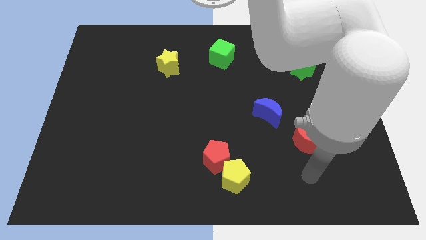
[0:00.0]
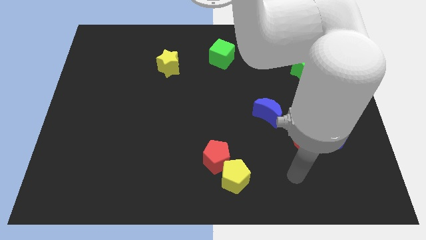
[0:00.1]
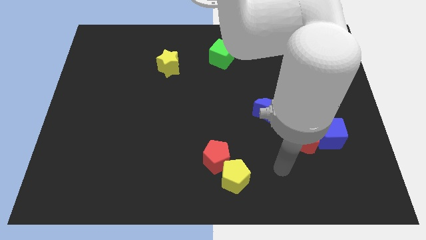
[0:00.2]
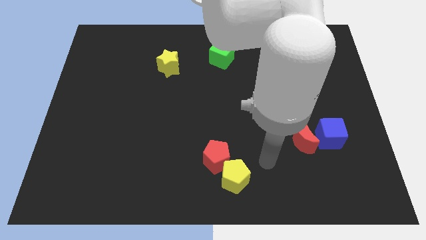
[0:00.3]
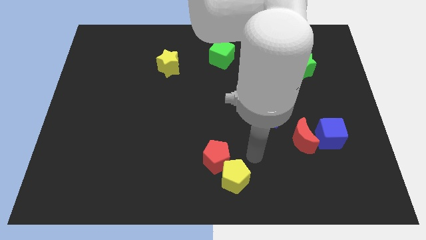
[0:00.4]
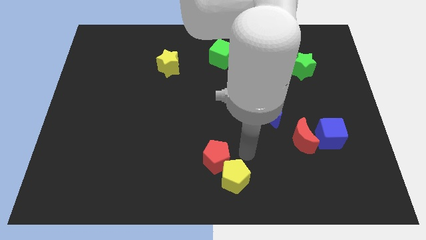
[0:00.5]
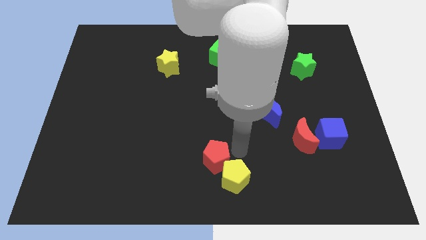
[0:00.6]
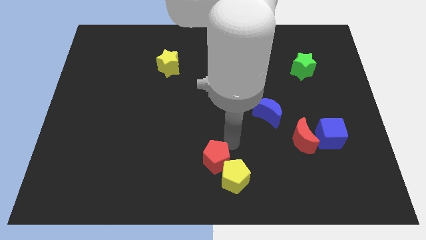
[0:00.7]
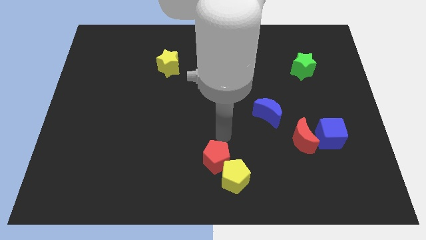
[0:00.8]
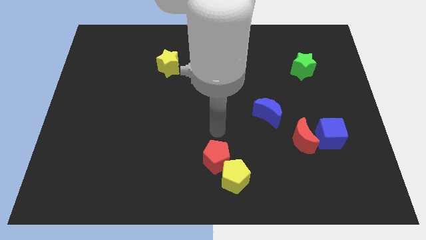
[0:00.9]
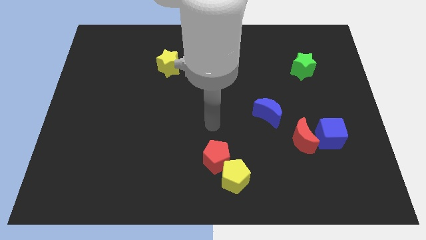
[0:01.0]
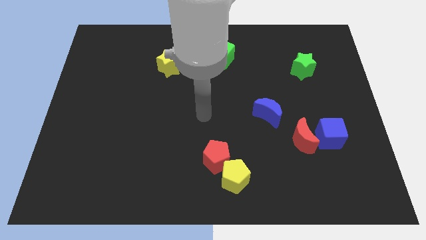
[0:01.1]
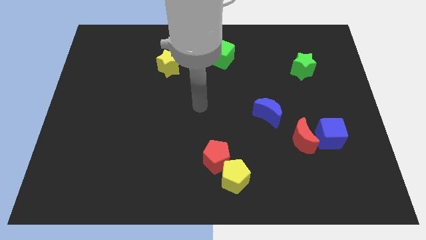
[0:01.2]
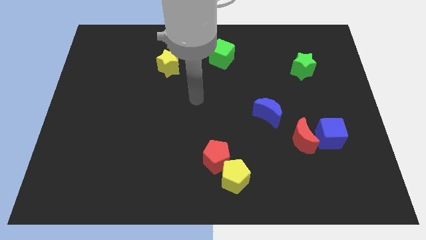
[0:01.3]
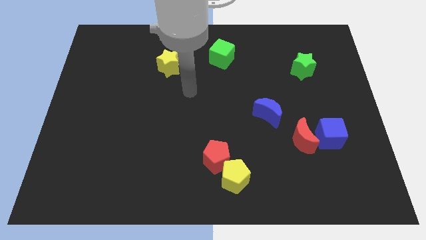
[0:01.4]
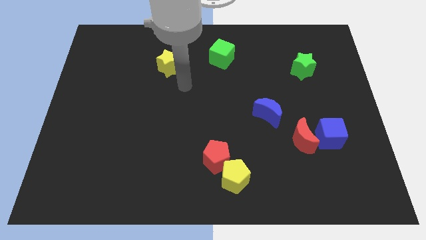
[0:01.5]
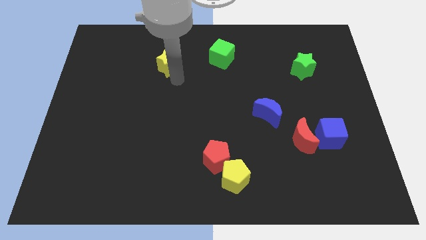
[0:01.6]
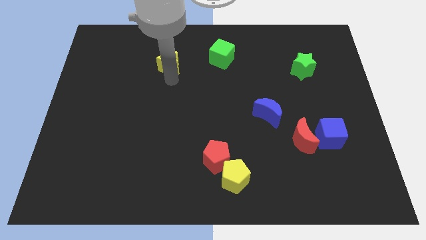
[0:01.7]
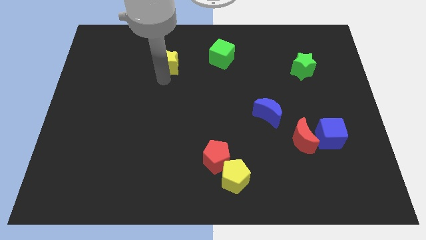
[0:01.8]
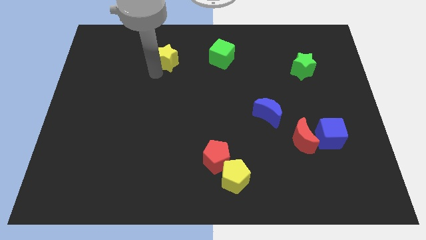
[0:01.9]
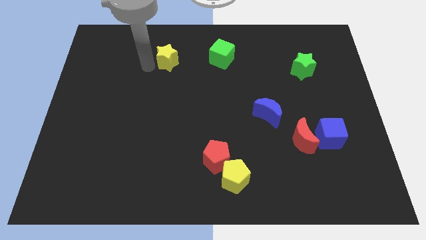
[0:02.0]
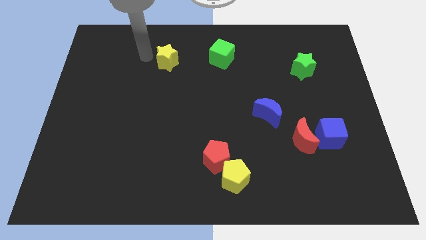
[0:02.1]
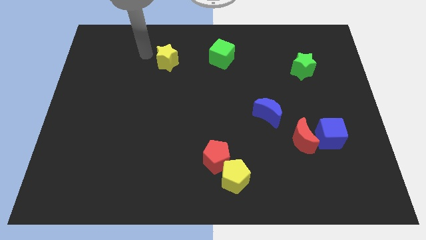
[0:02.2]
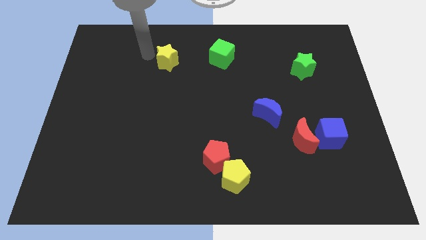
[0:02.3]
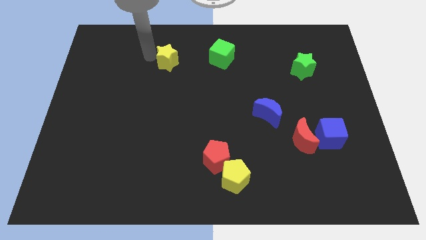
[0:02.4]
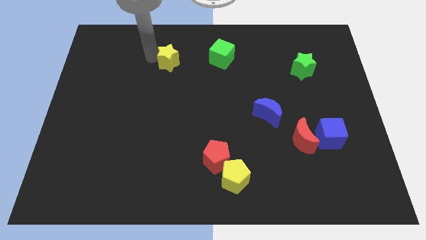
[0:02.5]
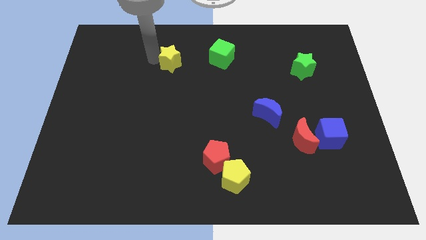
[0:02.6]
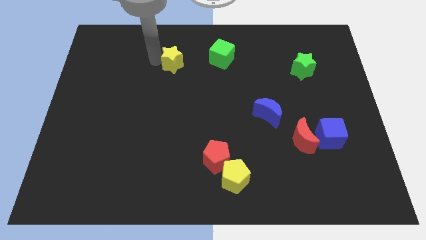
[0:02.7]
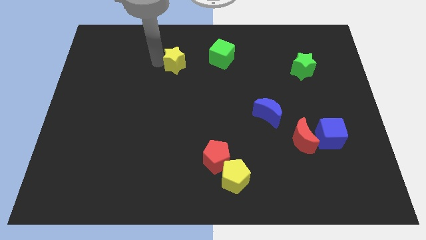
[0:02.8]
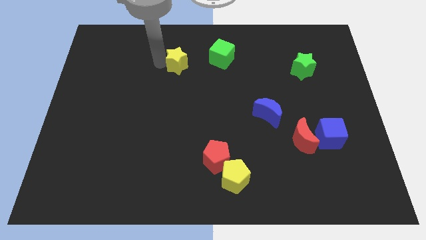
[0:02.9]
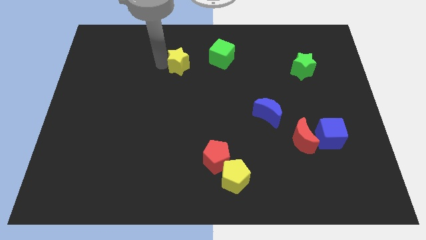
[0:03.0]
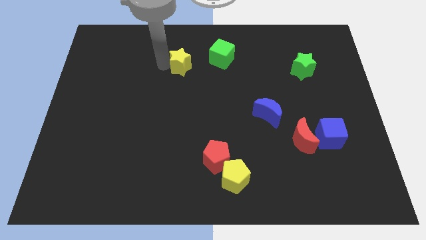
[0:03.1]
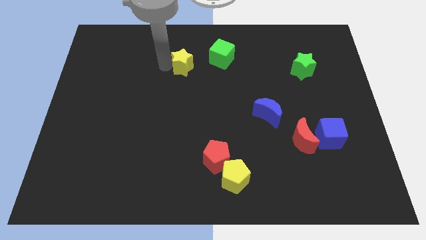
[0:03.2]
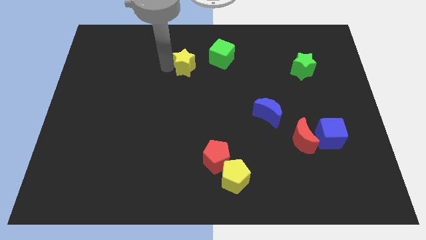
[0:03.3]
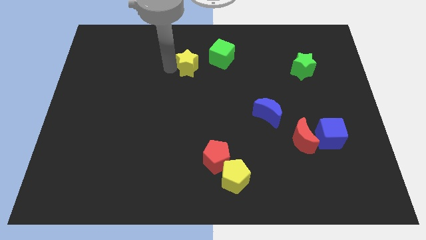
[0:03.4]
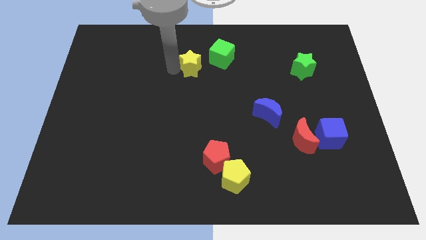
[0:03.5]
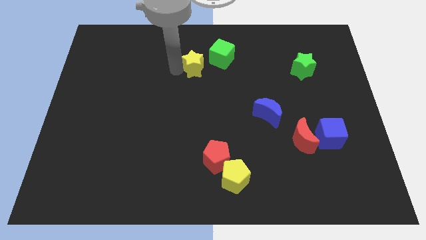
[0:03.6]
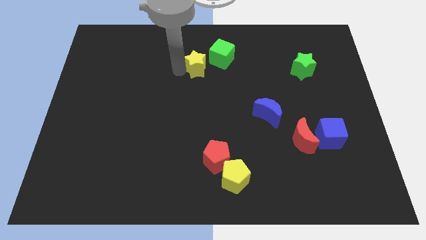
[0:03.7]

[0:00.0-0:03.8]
slightly slide the yellow star to the right

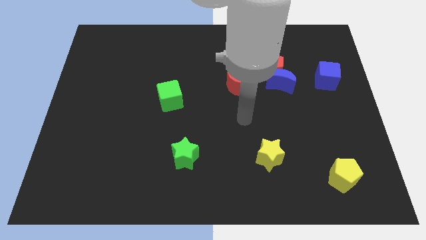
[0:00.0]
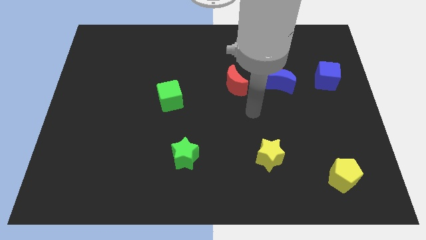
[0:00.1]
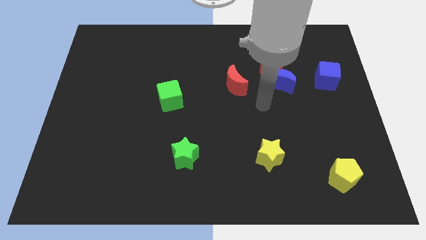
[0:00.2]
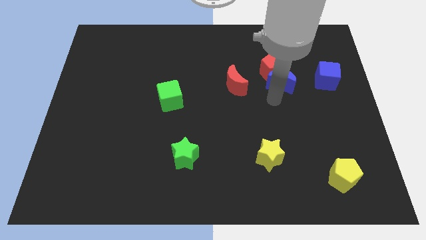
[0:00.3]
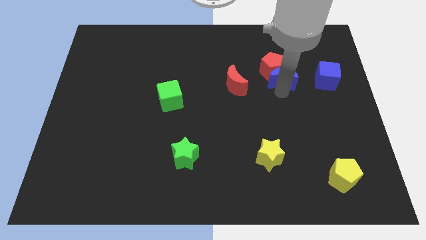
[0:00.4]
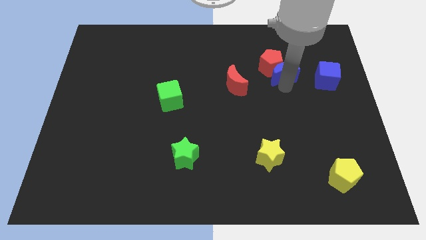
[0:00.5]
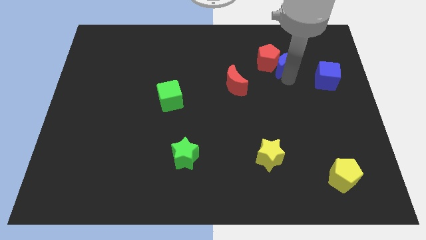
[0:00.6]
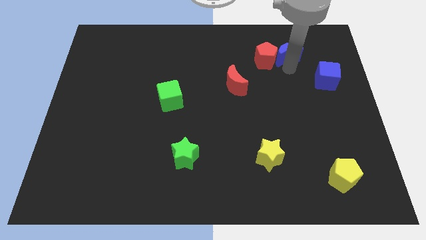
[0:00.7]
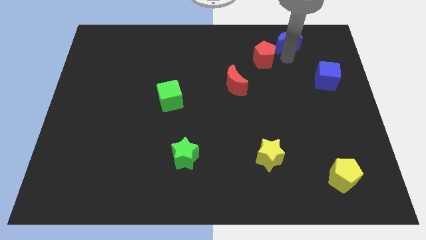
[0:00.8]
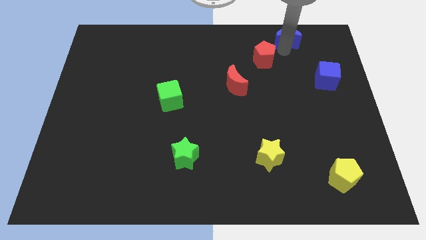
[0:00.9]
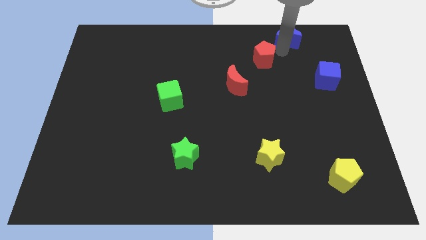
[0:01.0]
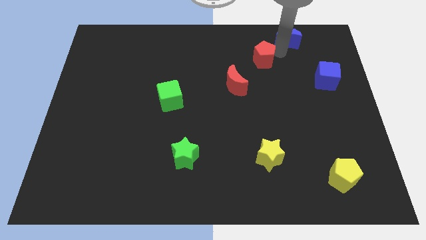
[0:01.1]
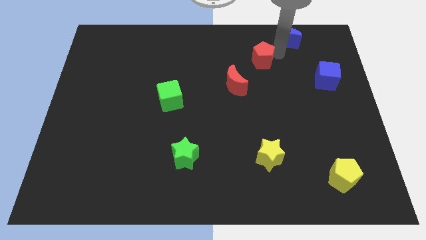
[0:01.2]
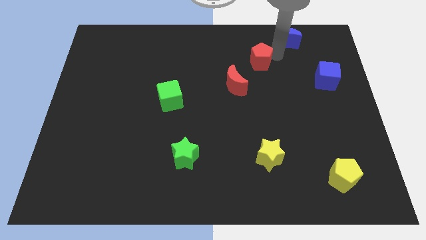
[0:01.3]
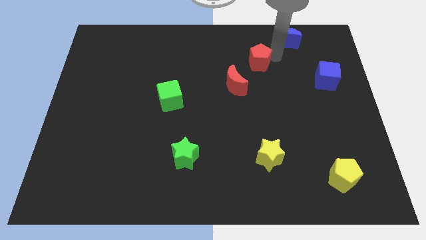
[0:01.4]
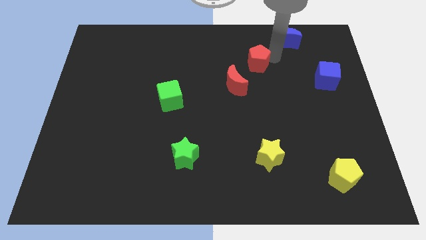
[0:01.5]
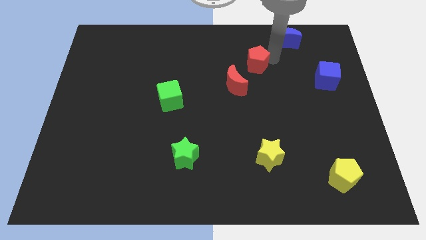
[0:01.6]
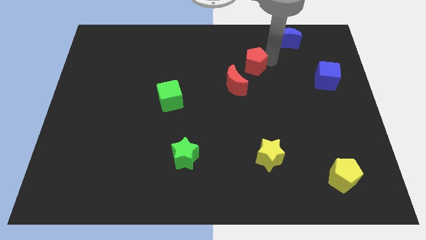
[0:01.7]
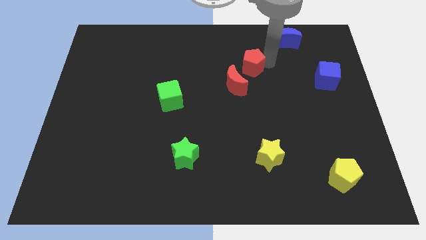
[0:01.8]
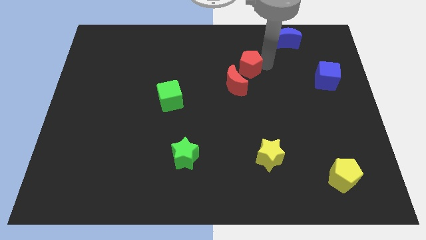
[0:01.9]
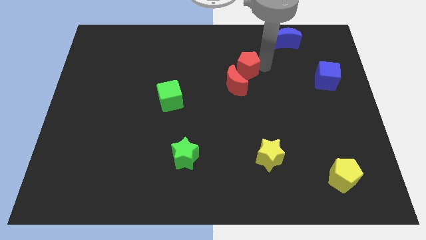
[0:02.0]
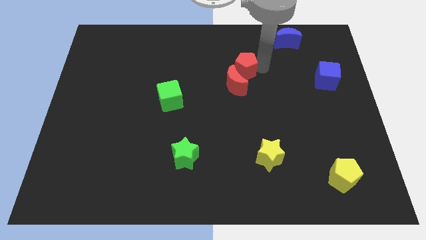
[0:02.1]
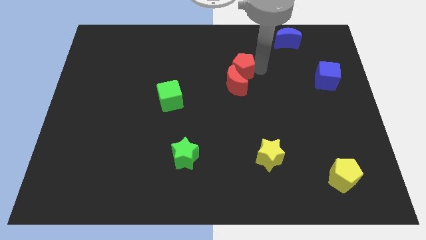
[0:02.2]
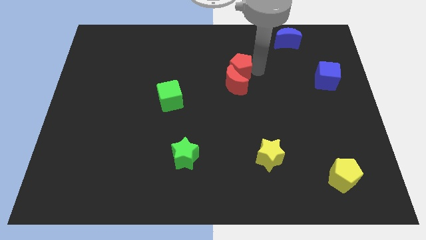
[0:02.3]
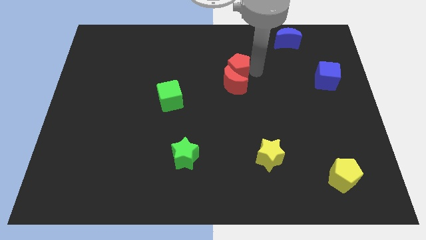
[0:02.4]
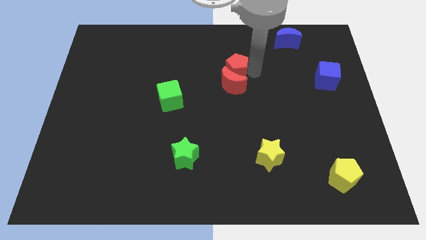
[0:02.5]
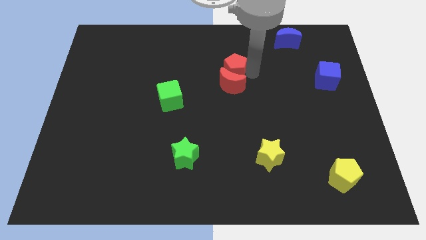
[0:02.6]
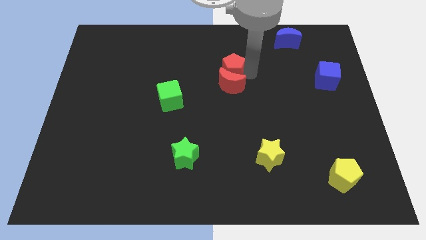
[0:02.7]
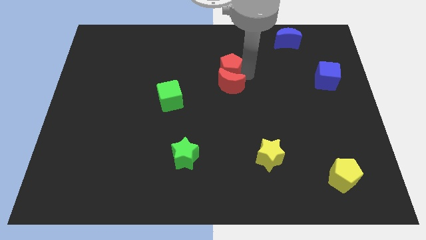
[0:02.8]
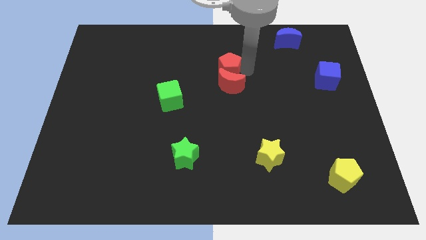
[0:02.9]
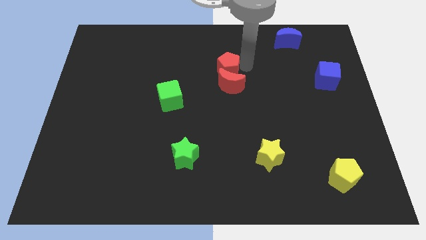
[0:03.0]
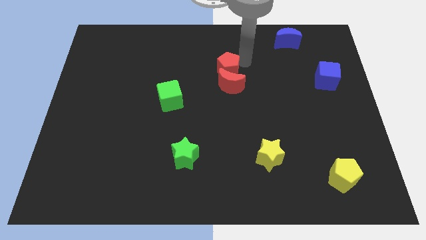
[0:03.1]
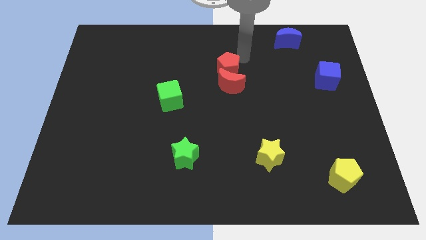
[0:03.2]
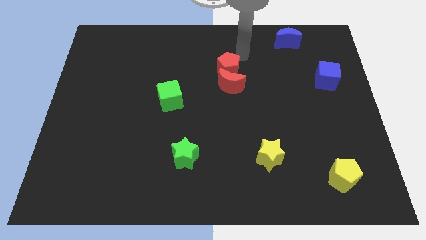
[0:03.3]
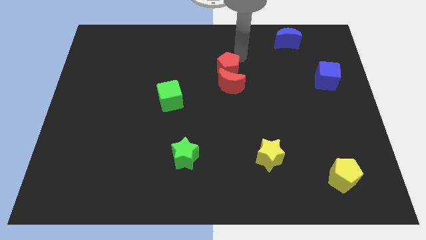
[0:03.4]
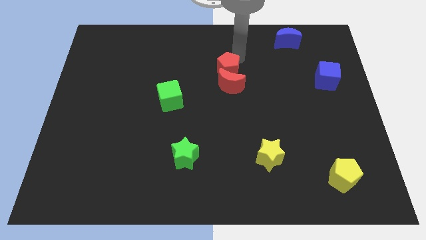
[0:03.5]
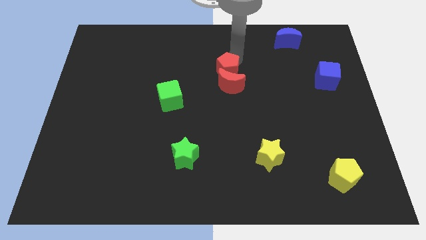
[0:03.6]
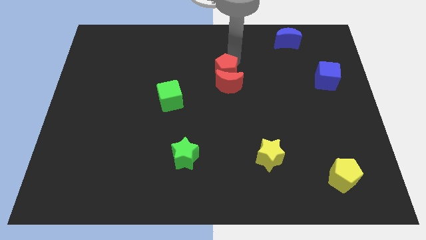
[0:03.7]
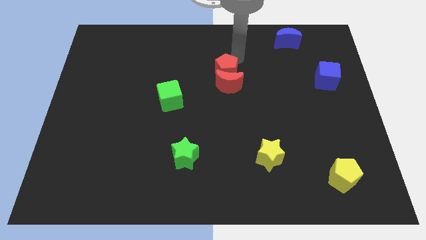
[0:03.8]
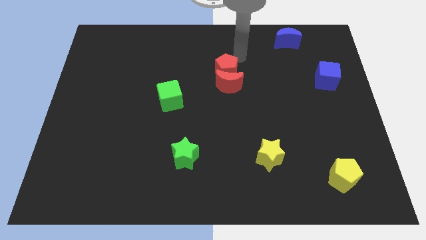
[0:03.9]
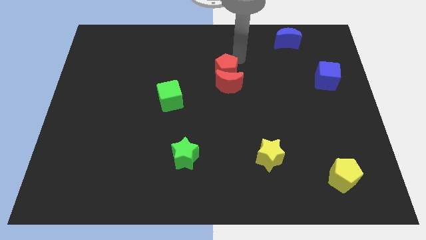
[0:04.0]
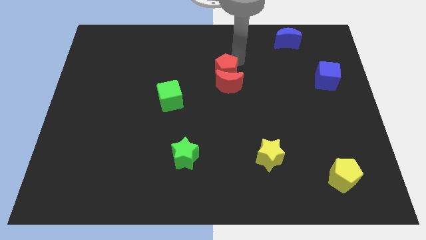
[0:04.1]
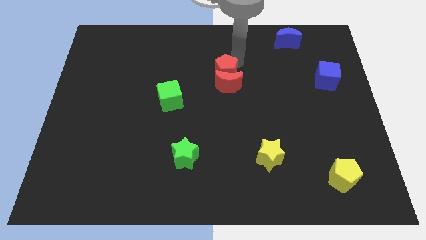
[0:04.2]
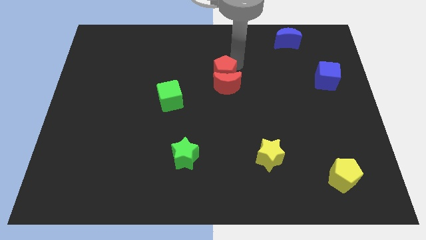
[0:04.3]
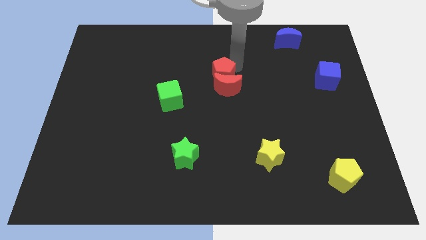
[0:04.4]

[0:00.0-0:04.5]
slide the red pentagon downwards and left somewhat
